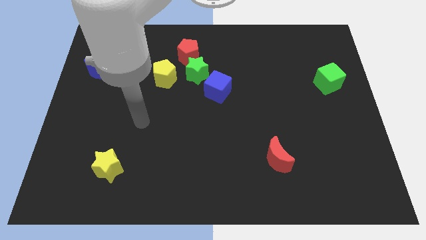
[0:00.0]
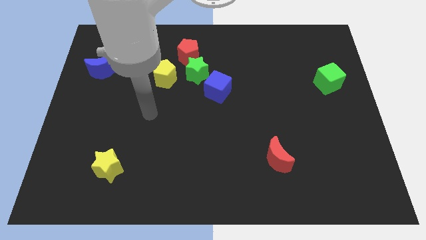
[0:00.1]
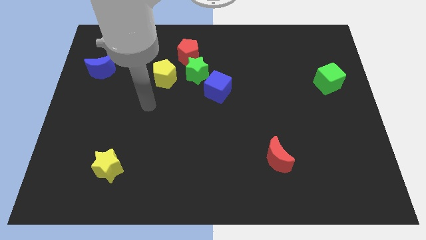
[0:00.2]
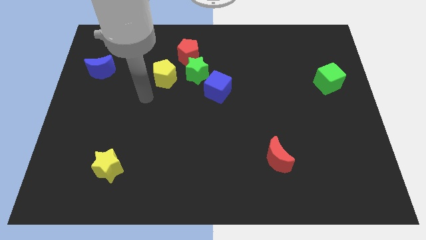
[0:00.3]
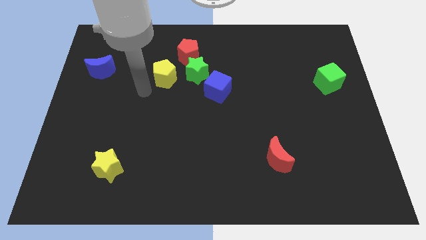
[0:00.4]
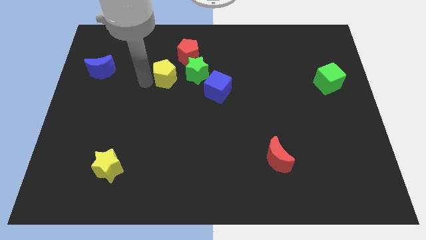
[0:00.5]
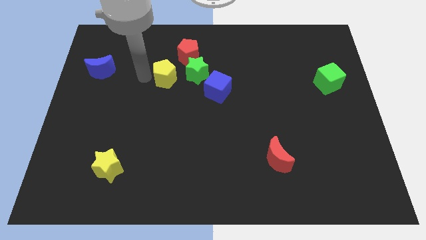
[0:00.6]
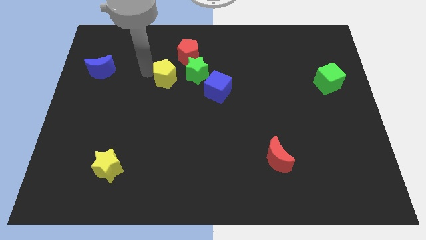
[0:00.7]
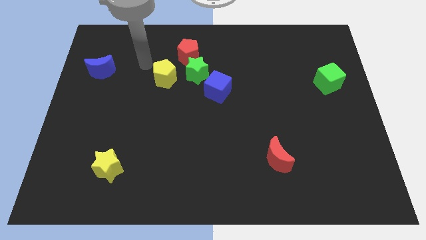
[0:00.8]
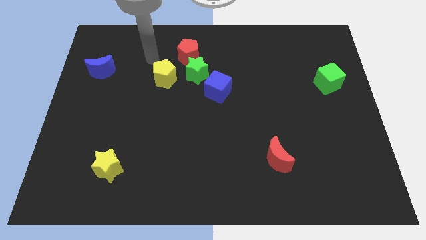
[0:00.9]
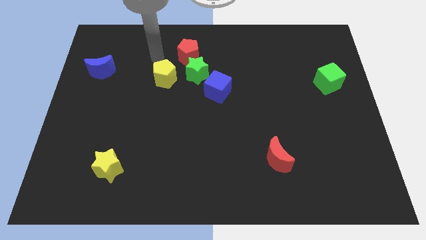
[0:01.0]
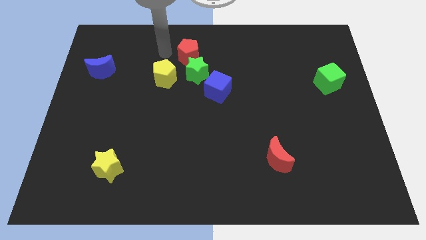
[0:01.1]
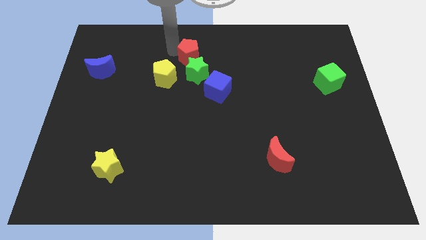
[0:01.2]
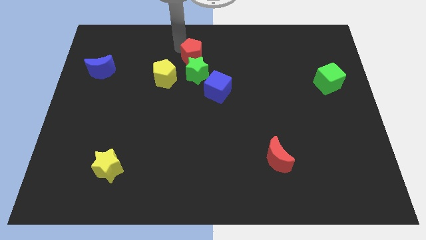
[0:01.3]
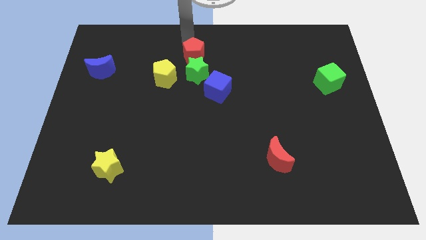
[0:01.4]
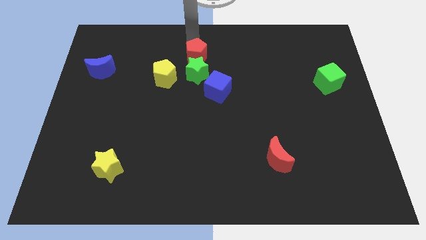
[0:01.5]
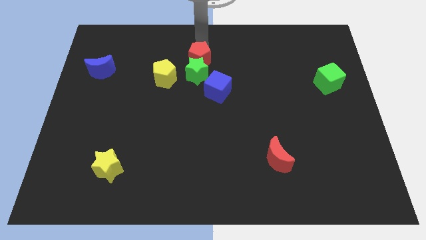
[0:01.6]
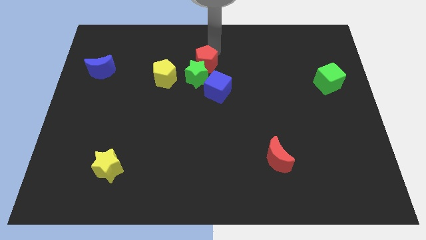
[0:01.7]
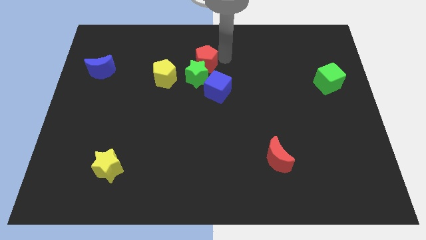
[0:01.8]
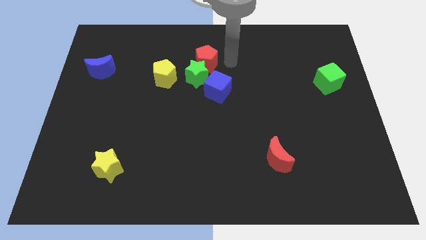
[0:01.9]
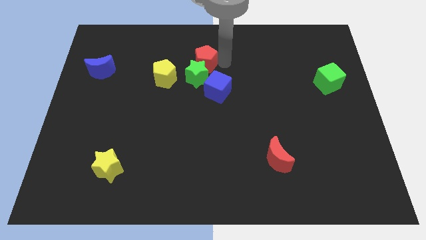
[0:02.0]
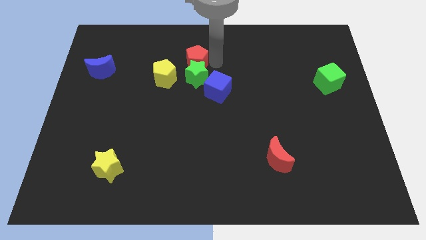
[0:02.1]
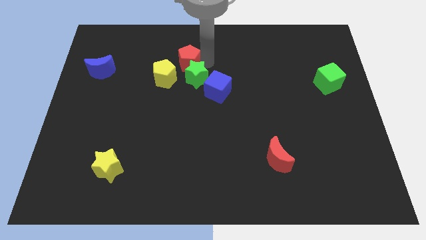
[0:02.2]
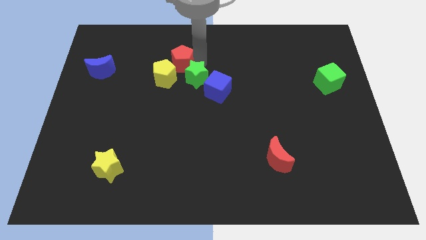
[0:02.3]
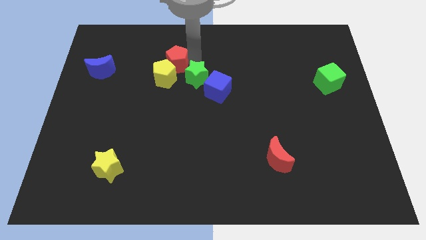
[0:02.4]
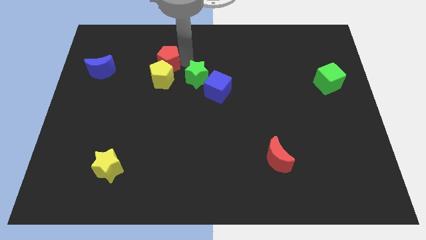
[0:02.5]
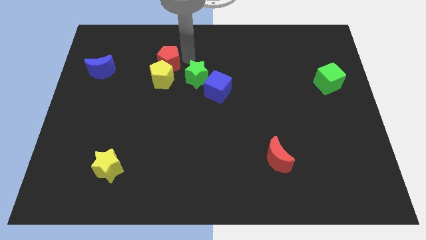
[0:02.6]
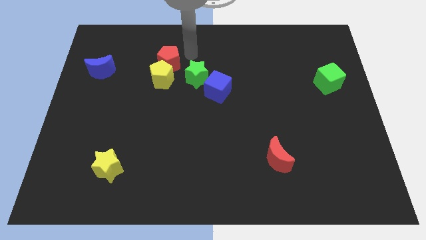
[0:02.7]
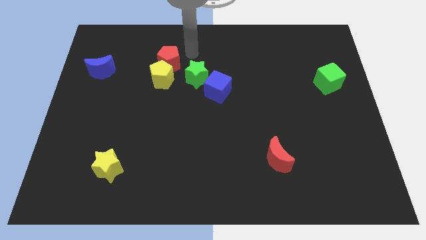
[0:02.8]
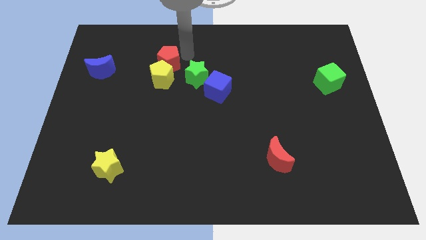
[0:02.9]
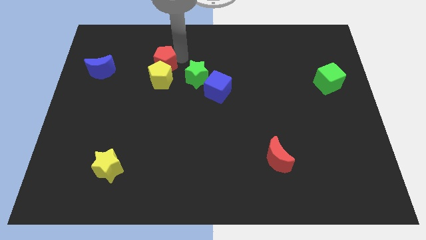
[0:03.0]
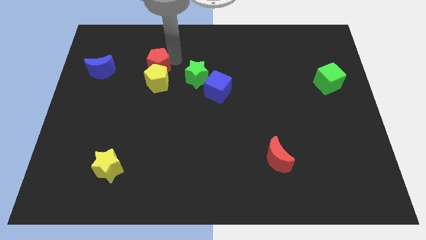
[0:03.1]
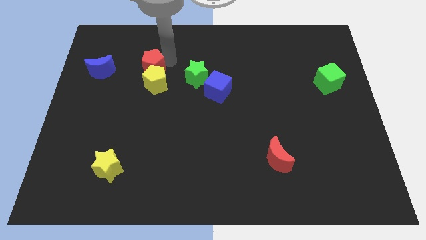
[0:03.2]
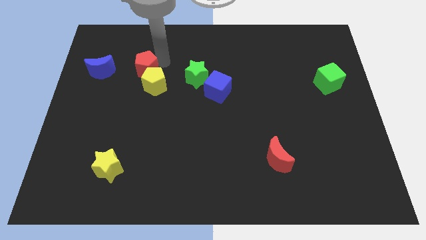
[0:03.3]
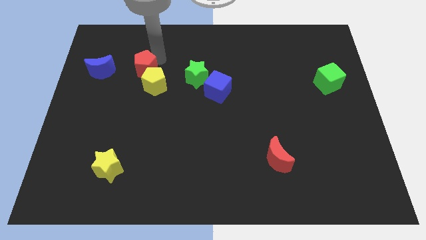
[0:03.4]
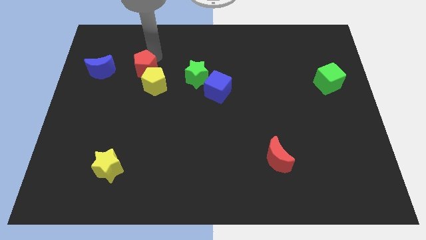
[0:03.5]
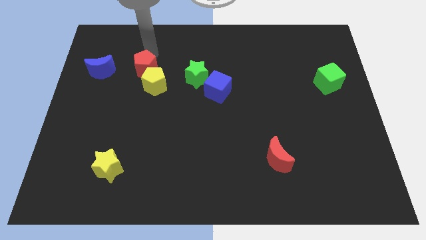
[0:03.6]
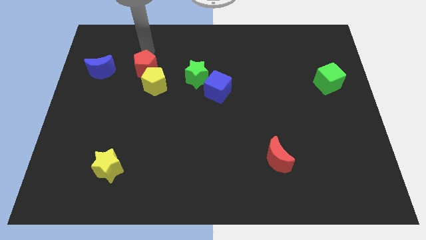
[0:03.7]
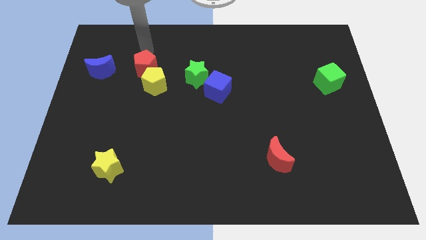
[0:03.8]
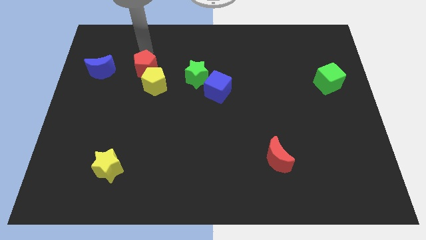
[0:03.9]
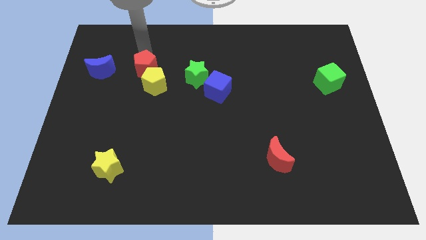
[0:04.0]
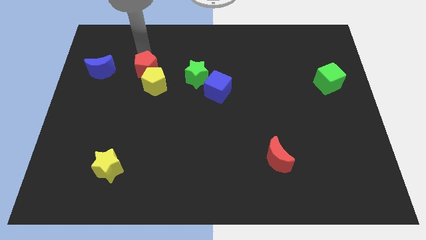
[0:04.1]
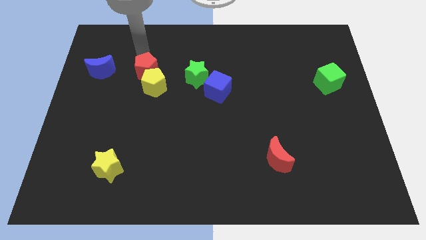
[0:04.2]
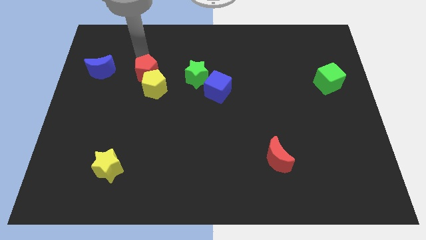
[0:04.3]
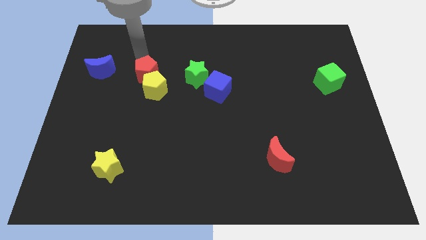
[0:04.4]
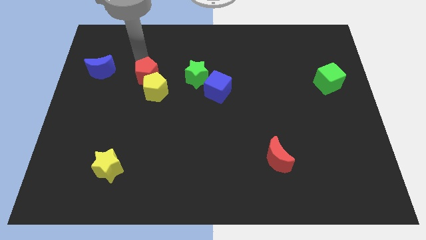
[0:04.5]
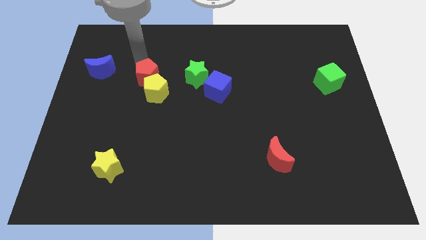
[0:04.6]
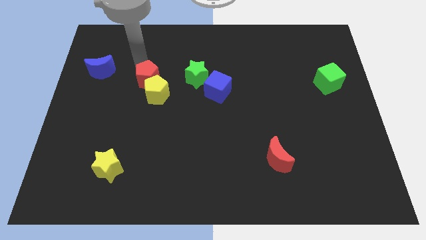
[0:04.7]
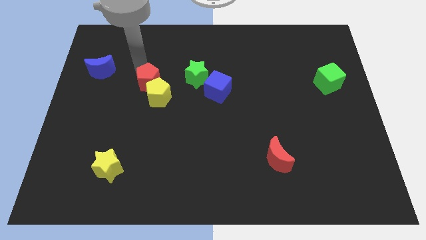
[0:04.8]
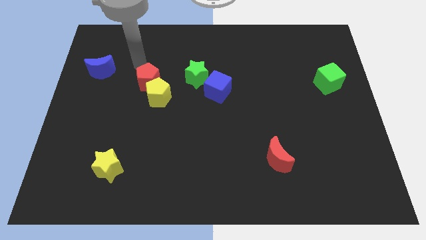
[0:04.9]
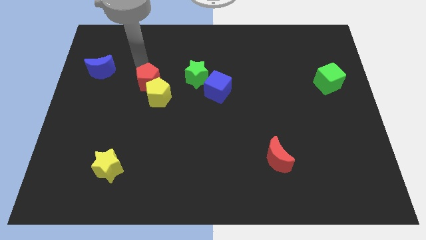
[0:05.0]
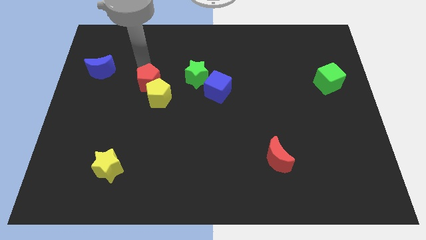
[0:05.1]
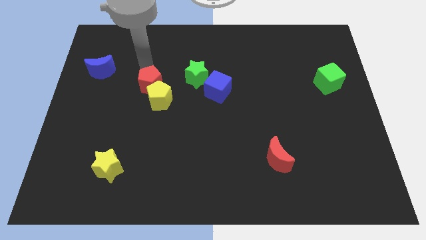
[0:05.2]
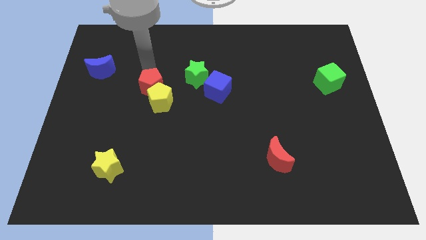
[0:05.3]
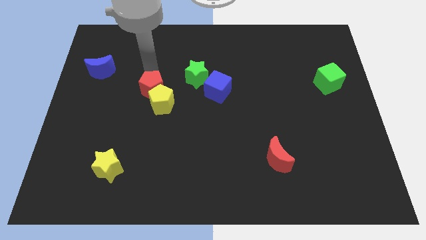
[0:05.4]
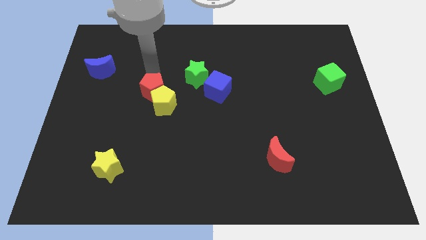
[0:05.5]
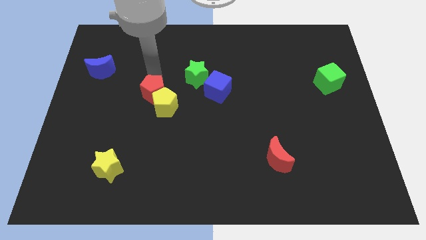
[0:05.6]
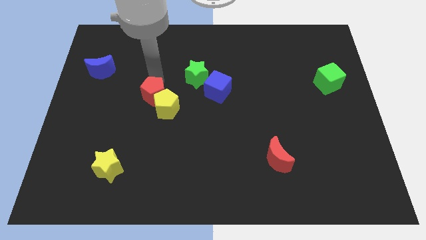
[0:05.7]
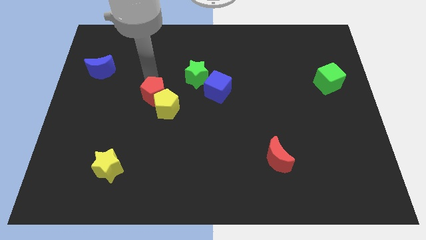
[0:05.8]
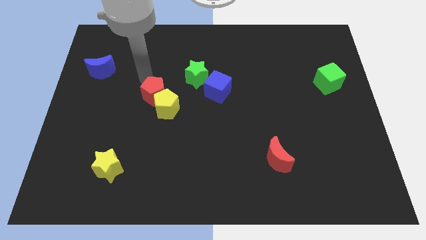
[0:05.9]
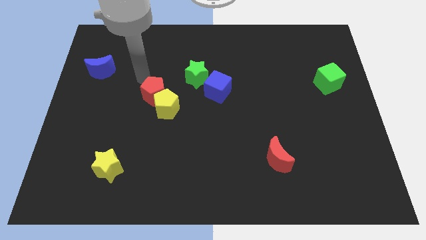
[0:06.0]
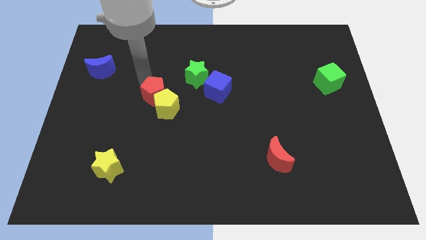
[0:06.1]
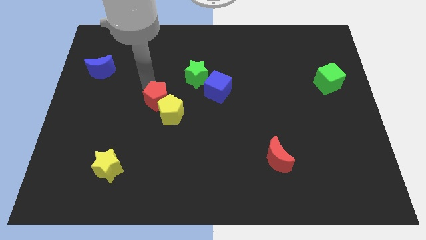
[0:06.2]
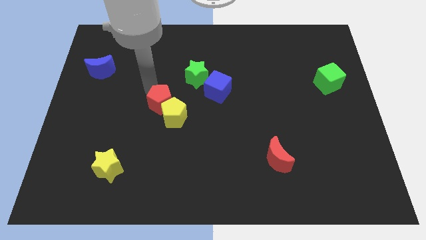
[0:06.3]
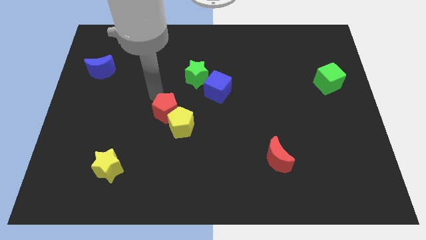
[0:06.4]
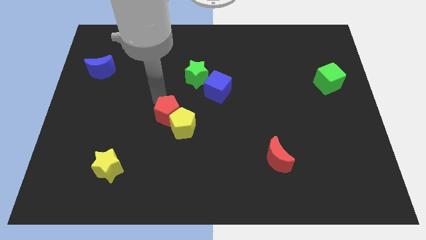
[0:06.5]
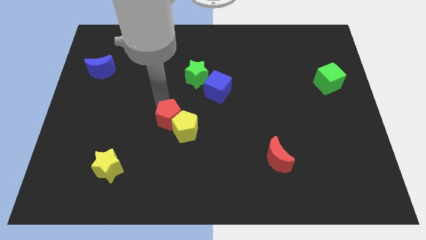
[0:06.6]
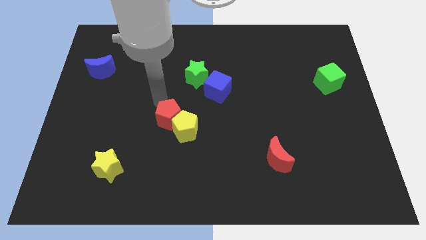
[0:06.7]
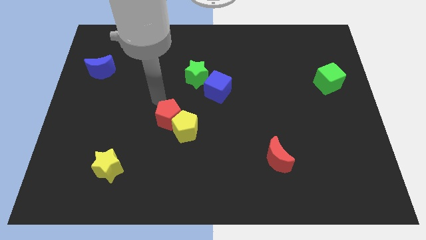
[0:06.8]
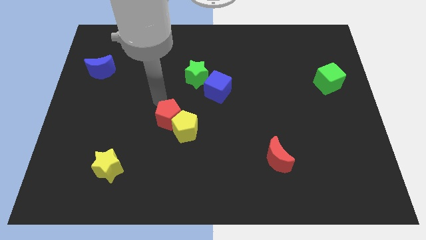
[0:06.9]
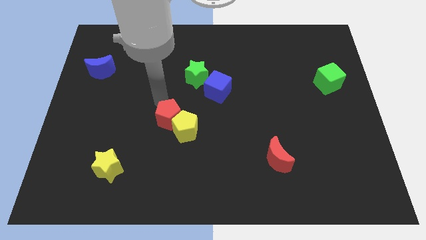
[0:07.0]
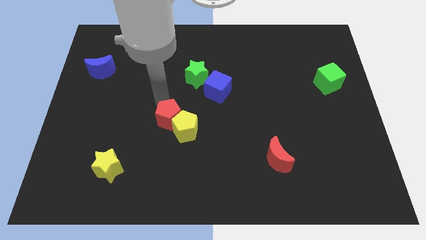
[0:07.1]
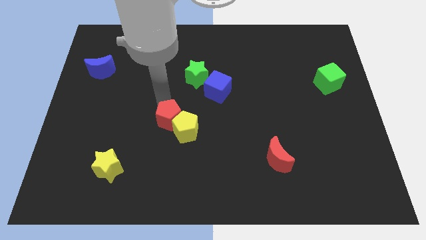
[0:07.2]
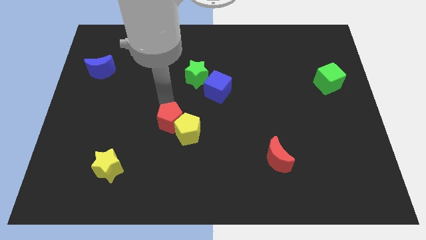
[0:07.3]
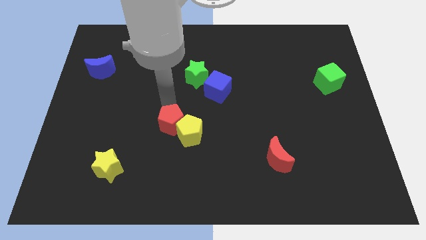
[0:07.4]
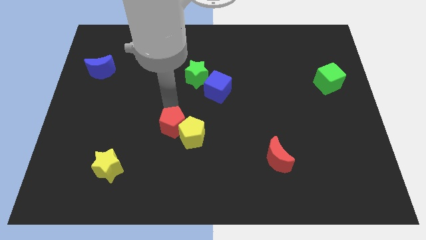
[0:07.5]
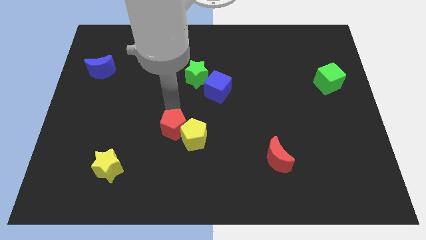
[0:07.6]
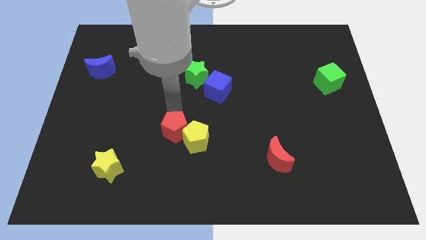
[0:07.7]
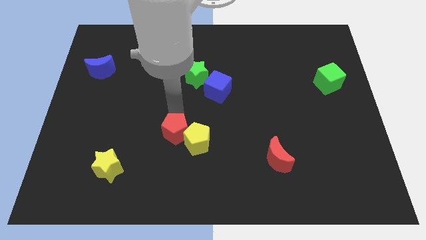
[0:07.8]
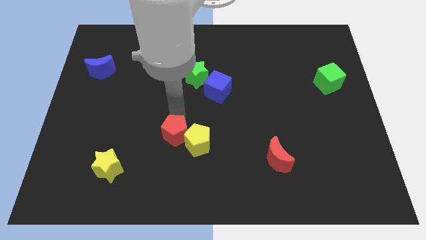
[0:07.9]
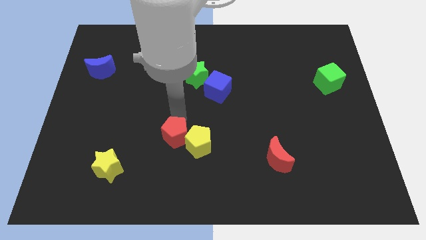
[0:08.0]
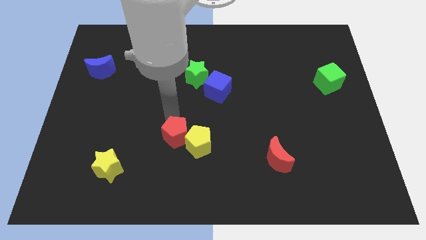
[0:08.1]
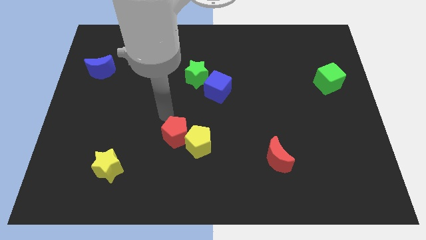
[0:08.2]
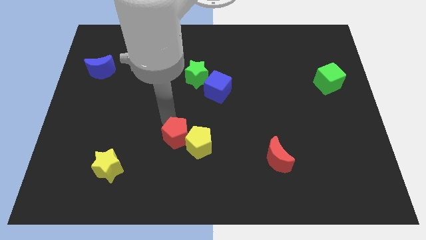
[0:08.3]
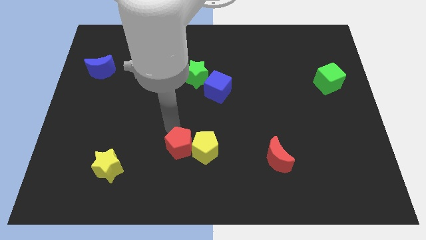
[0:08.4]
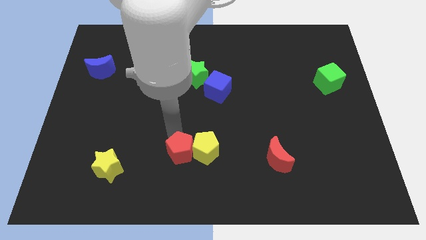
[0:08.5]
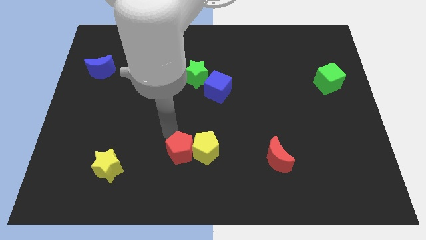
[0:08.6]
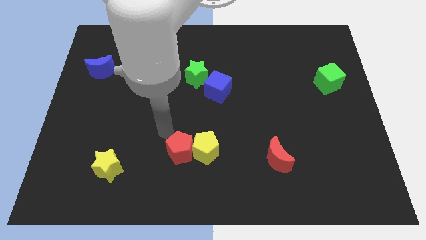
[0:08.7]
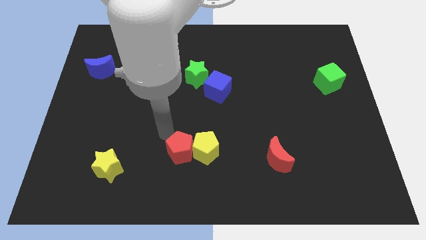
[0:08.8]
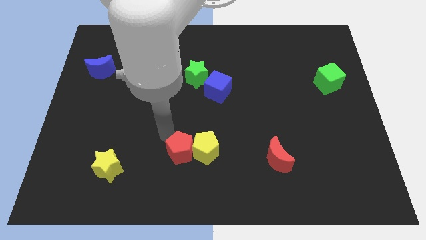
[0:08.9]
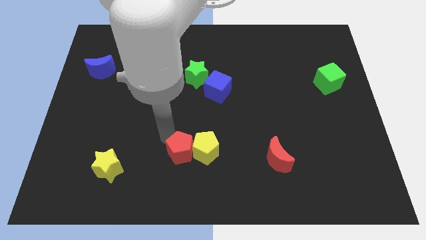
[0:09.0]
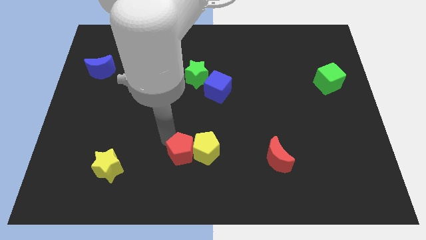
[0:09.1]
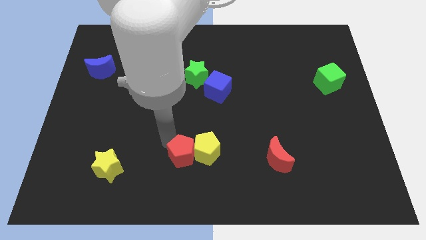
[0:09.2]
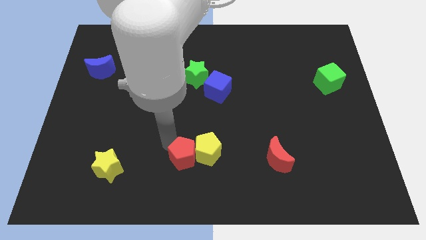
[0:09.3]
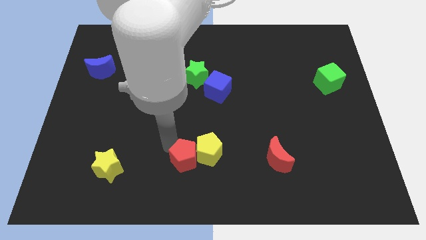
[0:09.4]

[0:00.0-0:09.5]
move the red pentagon to the bottom side
